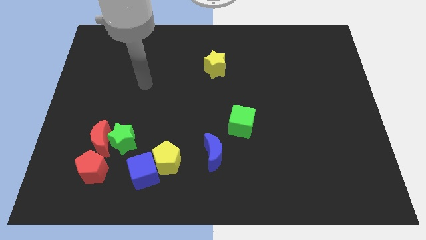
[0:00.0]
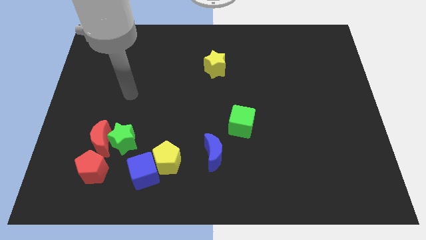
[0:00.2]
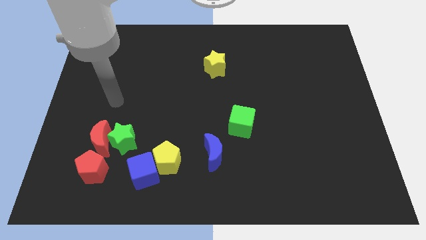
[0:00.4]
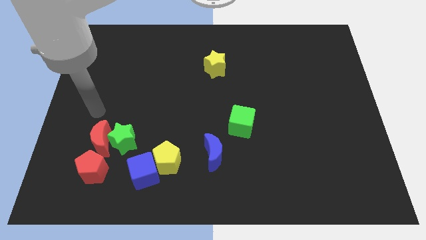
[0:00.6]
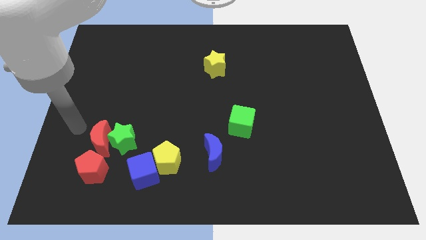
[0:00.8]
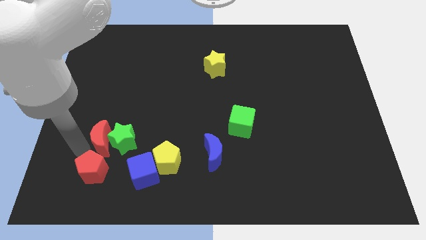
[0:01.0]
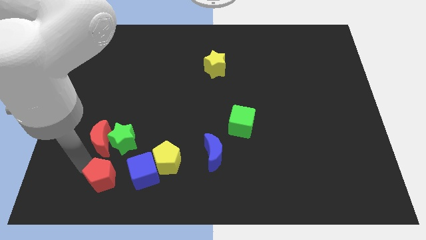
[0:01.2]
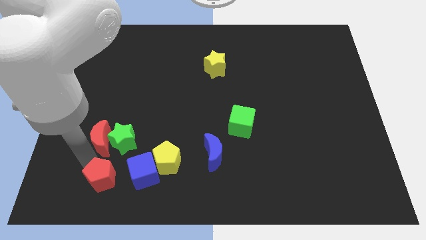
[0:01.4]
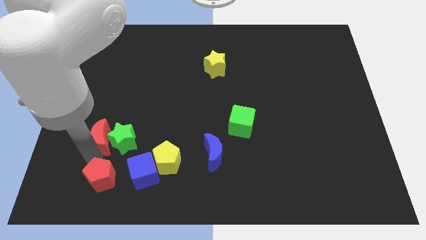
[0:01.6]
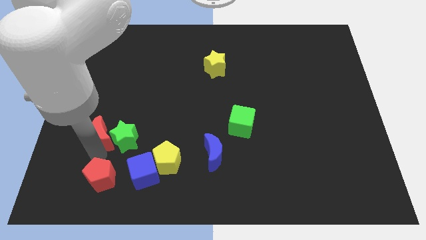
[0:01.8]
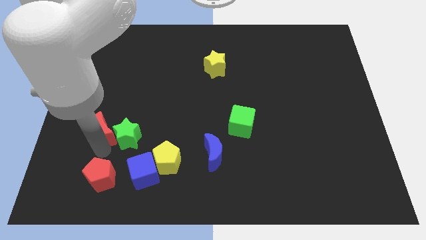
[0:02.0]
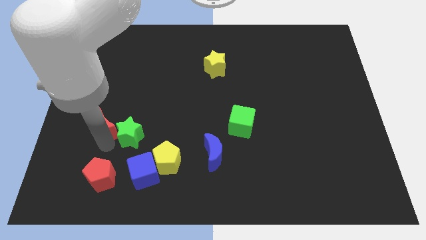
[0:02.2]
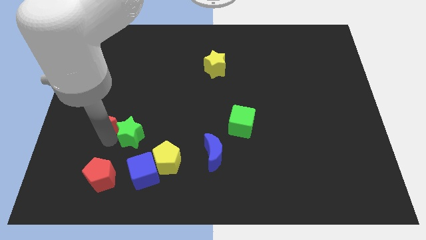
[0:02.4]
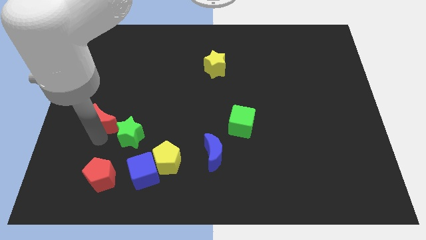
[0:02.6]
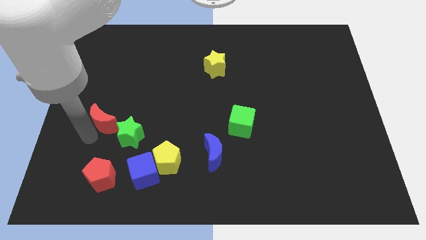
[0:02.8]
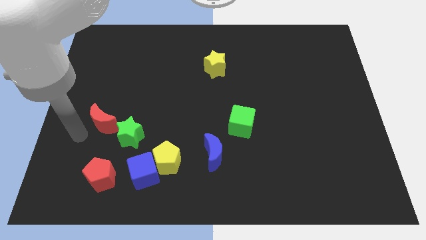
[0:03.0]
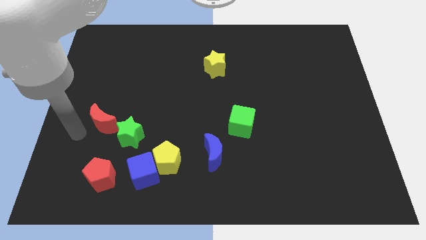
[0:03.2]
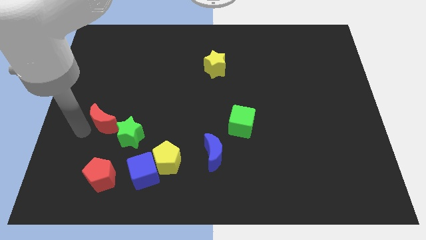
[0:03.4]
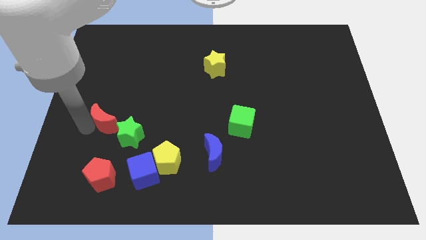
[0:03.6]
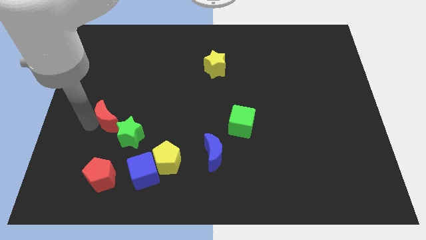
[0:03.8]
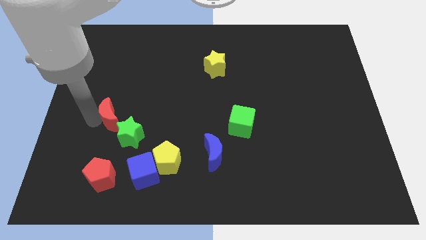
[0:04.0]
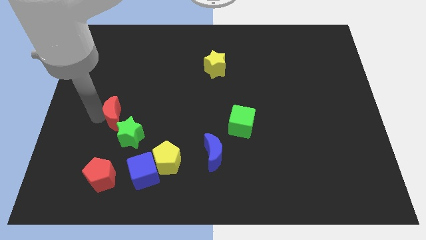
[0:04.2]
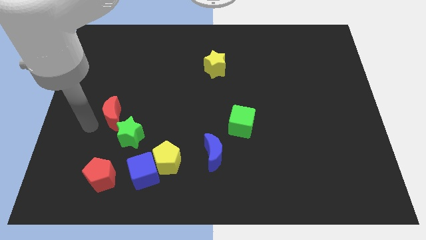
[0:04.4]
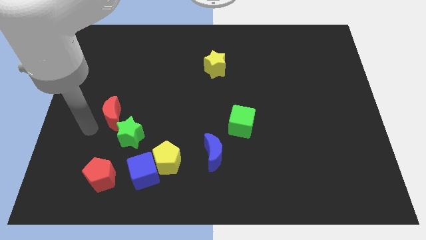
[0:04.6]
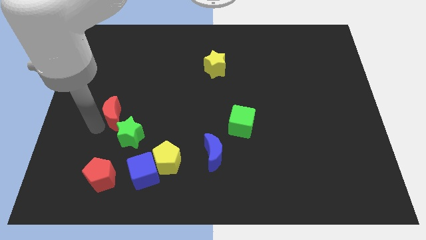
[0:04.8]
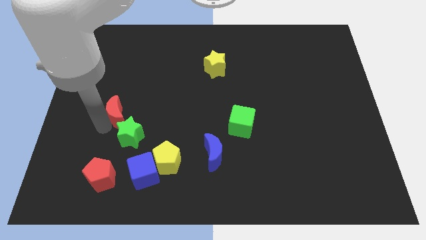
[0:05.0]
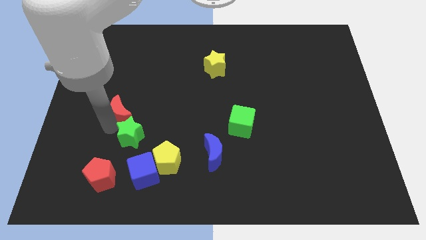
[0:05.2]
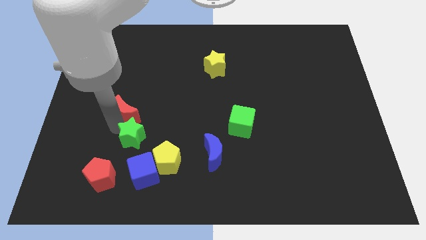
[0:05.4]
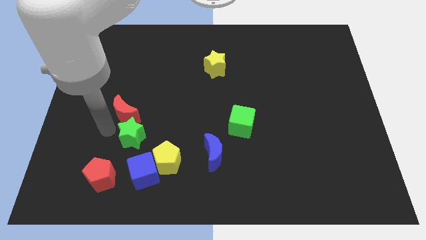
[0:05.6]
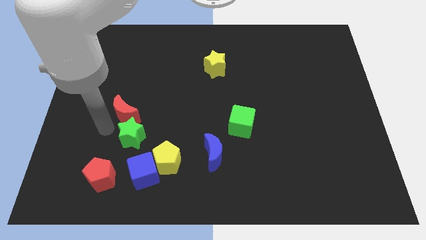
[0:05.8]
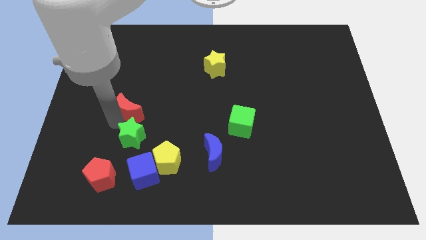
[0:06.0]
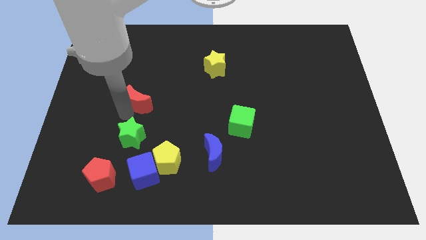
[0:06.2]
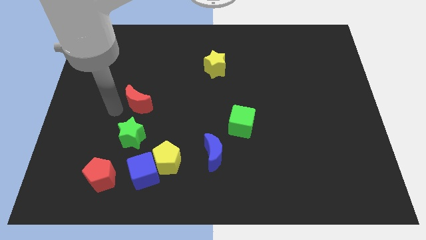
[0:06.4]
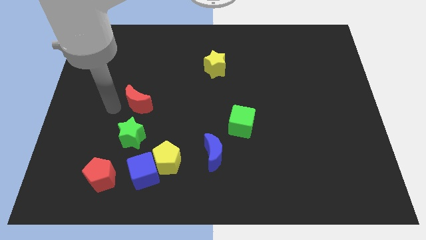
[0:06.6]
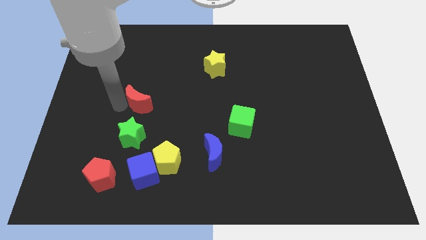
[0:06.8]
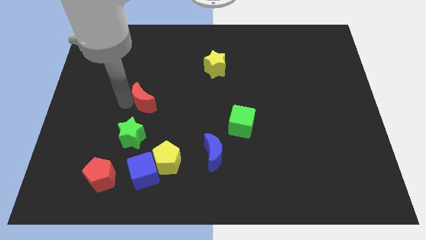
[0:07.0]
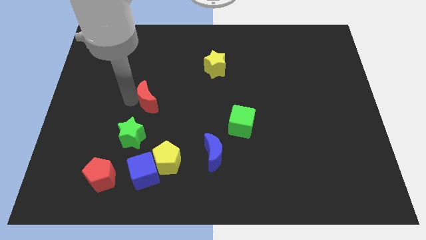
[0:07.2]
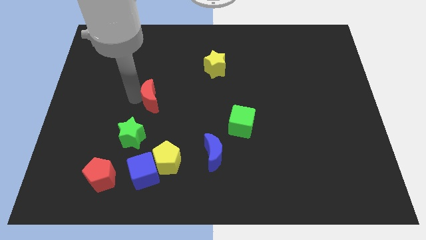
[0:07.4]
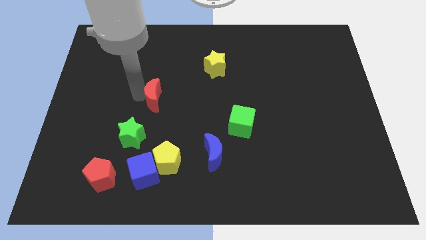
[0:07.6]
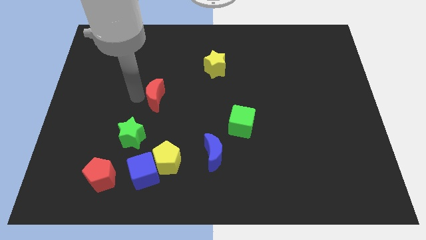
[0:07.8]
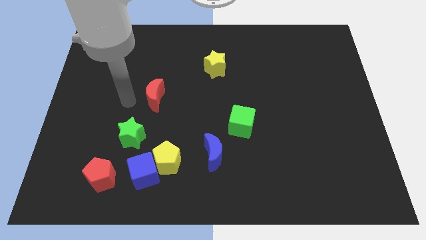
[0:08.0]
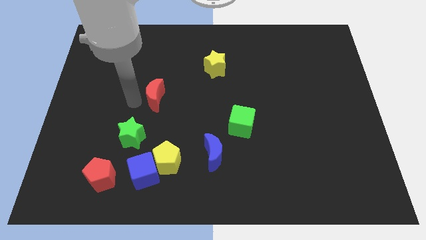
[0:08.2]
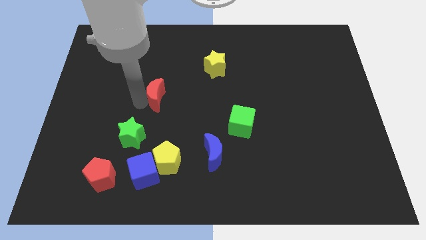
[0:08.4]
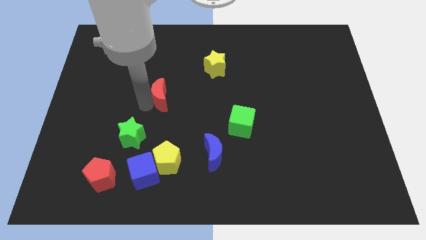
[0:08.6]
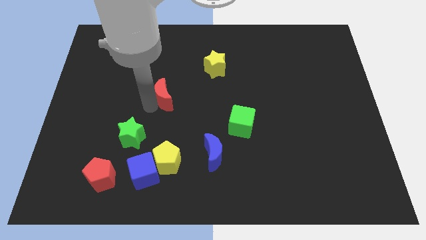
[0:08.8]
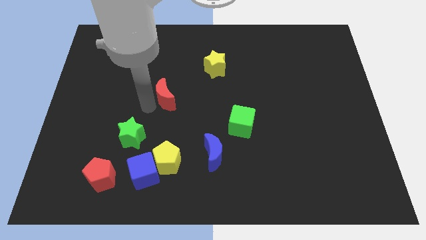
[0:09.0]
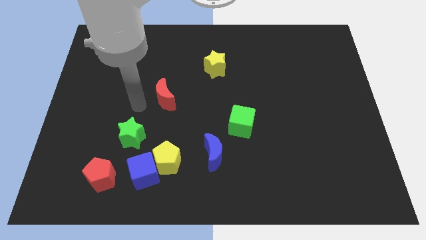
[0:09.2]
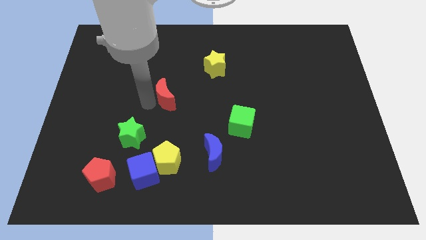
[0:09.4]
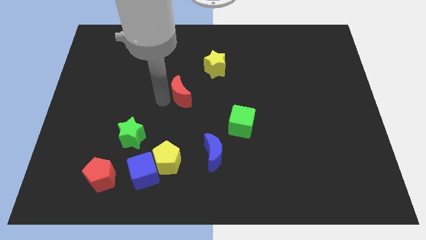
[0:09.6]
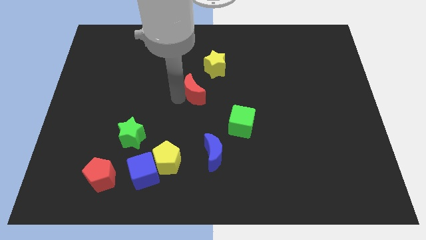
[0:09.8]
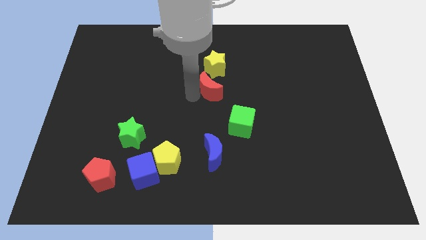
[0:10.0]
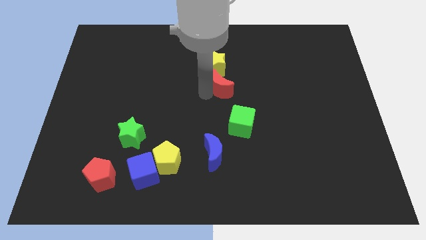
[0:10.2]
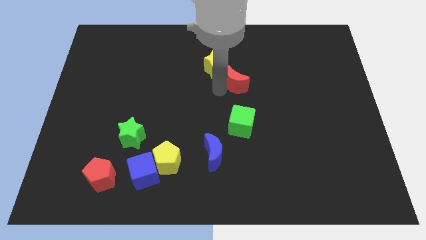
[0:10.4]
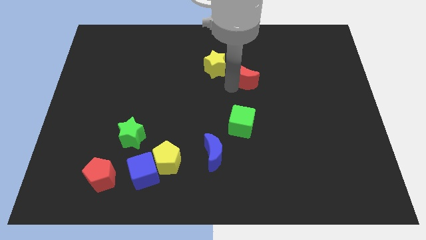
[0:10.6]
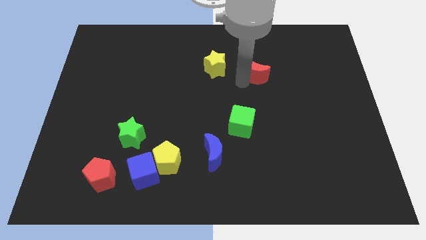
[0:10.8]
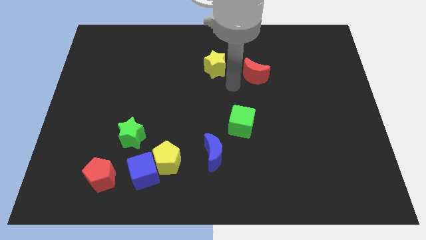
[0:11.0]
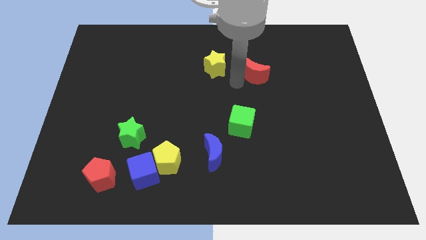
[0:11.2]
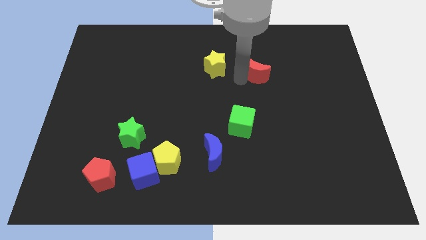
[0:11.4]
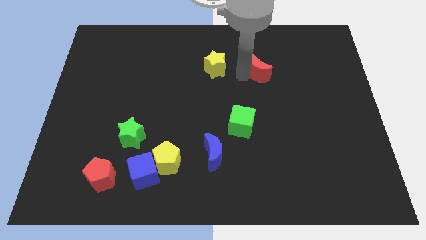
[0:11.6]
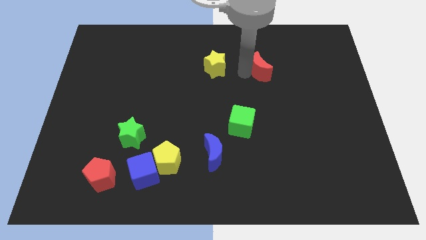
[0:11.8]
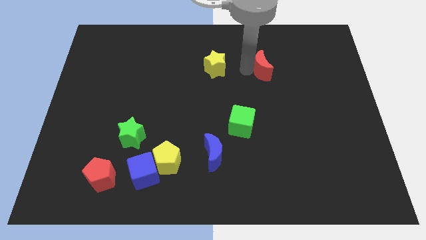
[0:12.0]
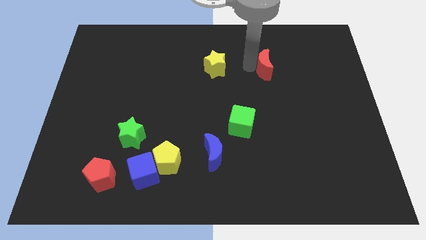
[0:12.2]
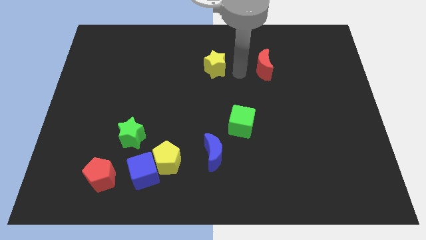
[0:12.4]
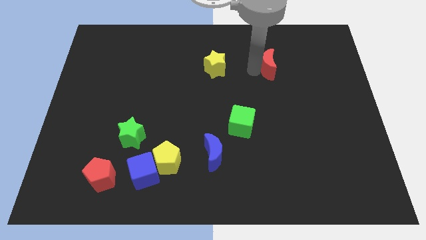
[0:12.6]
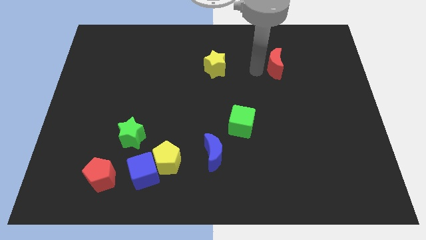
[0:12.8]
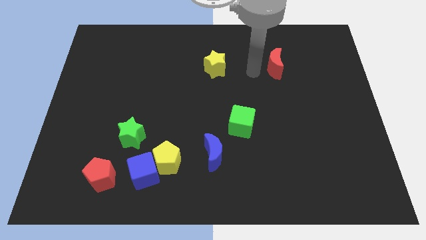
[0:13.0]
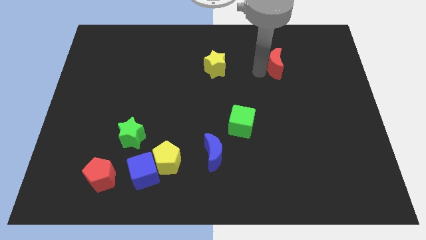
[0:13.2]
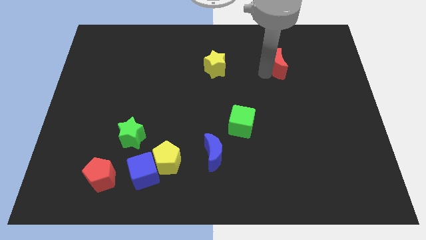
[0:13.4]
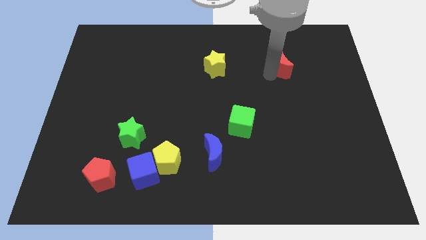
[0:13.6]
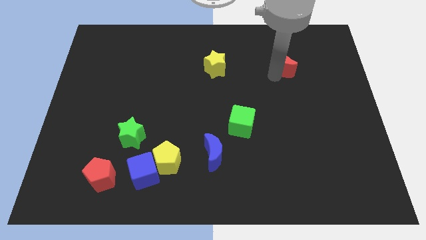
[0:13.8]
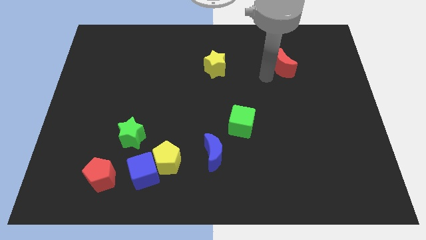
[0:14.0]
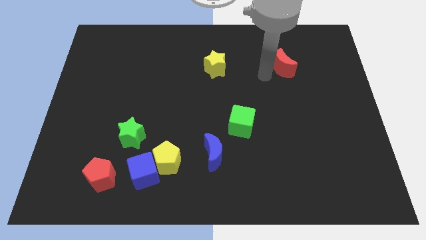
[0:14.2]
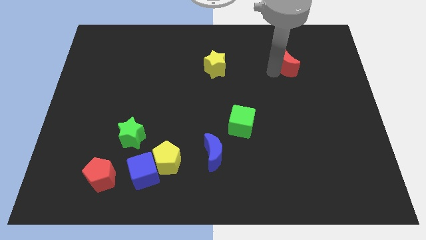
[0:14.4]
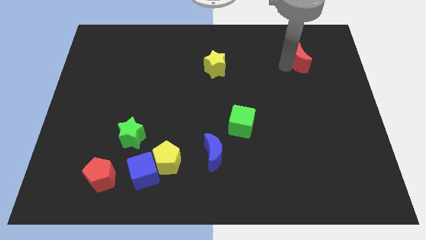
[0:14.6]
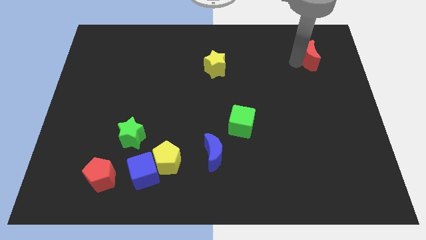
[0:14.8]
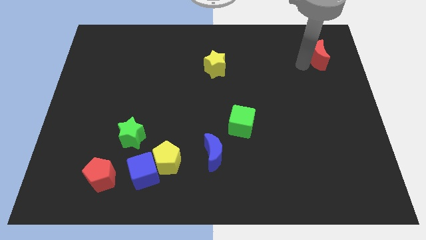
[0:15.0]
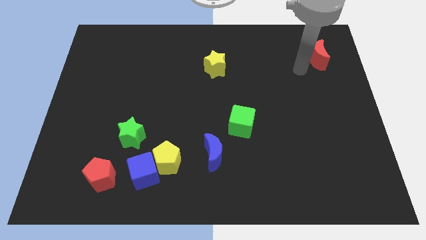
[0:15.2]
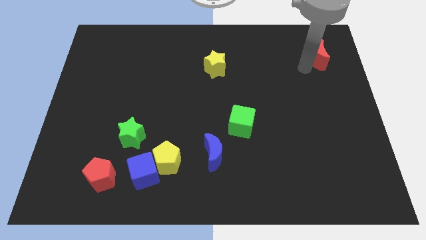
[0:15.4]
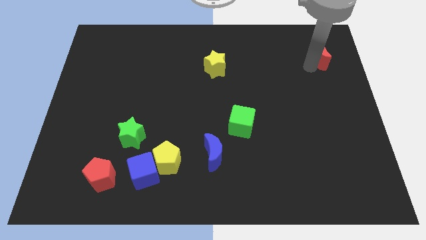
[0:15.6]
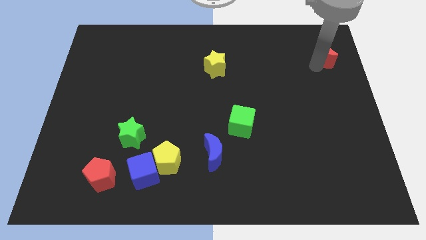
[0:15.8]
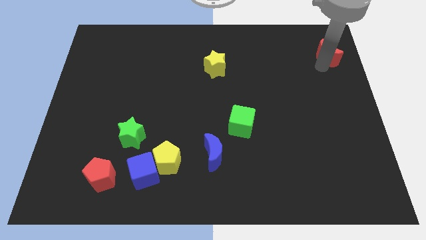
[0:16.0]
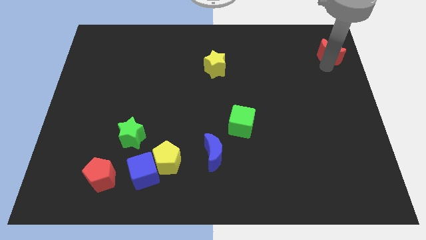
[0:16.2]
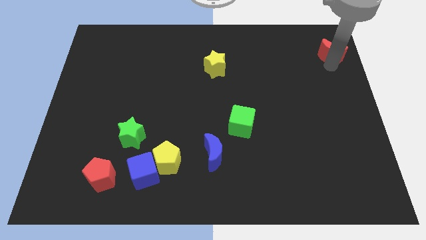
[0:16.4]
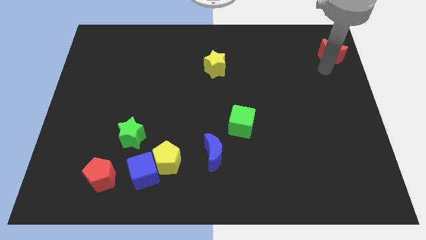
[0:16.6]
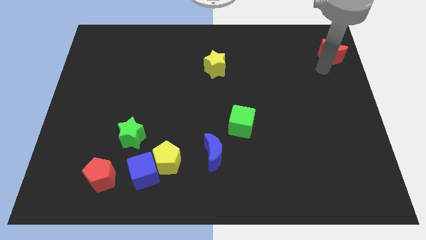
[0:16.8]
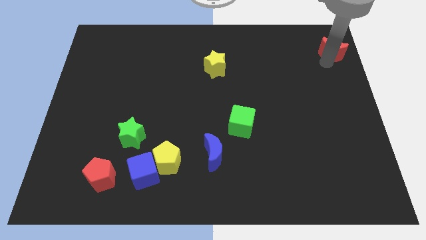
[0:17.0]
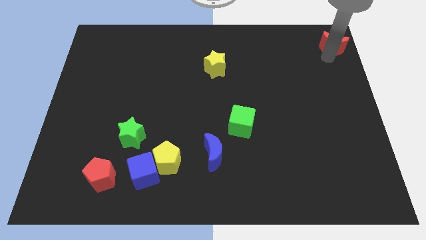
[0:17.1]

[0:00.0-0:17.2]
move the red moon to the upper right corner
